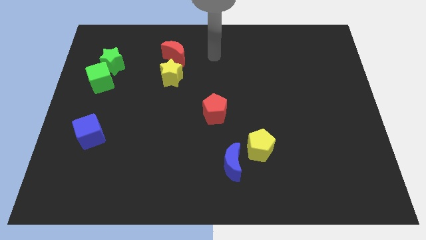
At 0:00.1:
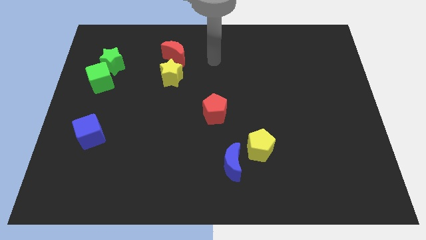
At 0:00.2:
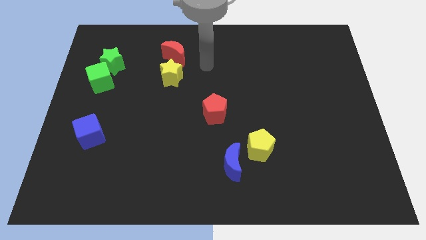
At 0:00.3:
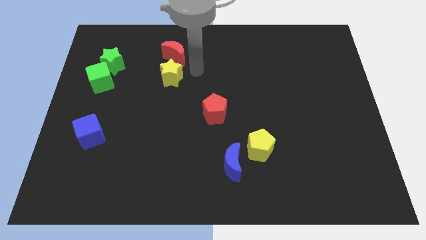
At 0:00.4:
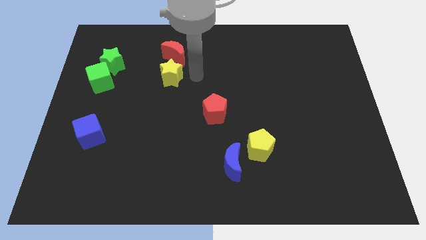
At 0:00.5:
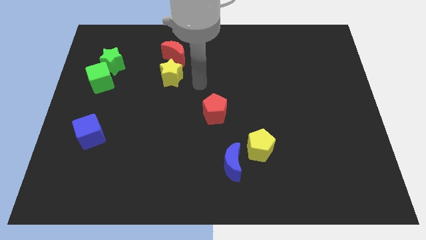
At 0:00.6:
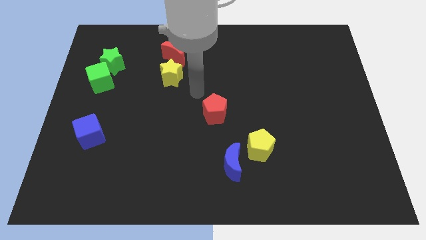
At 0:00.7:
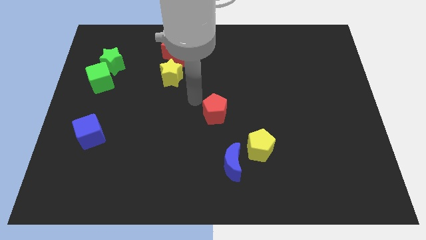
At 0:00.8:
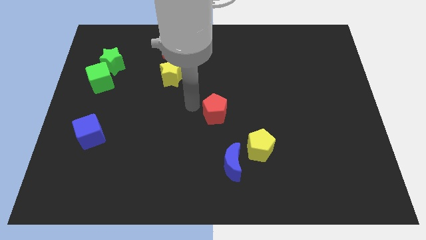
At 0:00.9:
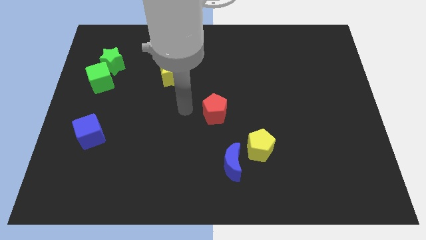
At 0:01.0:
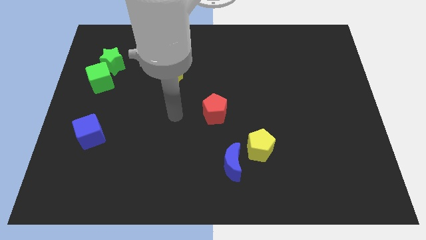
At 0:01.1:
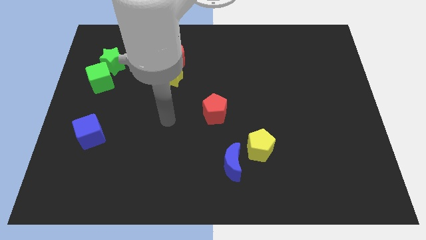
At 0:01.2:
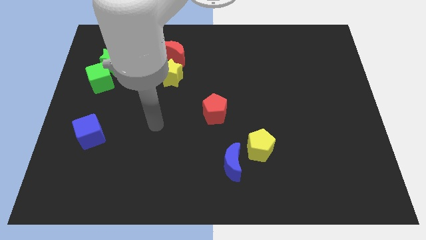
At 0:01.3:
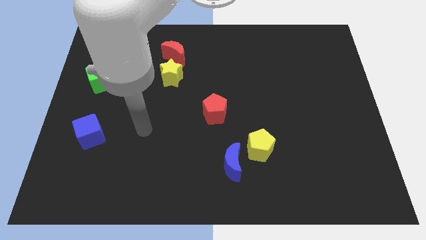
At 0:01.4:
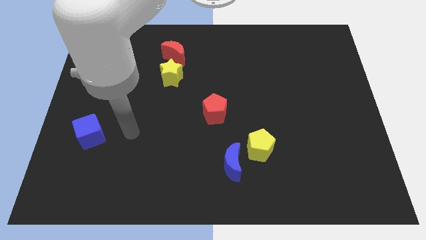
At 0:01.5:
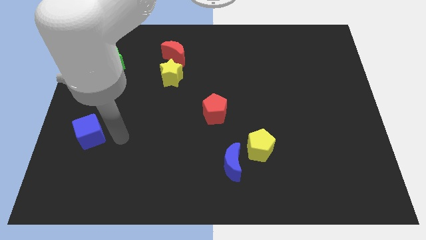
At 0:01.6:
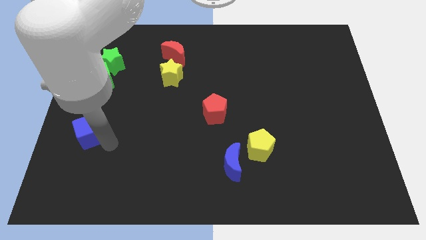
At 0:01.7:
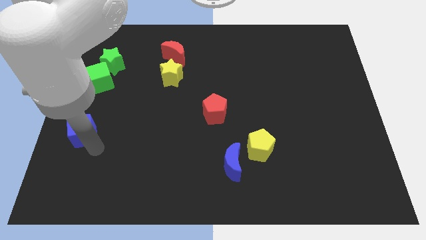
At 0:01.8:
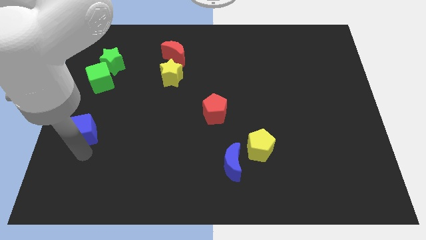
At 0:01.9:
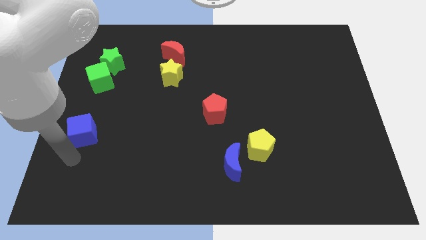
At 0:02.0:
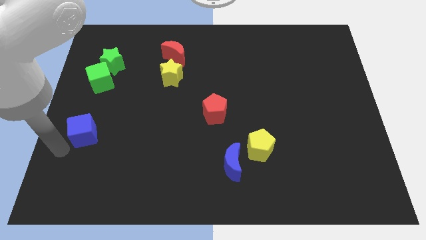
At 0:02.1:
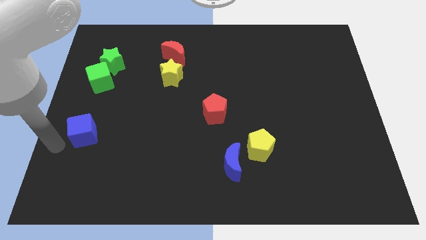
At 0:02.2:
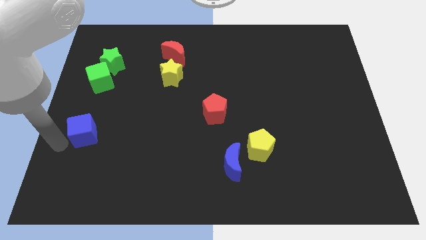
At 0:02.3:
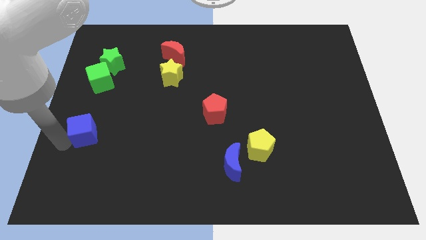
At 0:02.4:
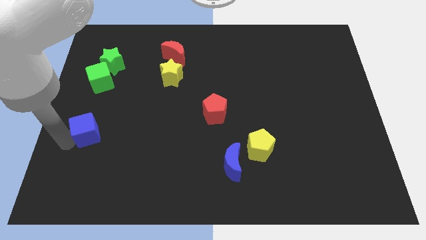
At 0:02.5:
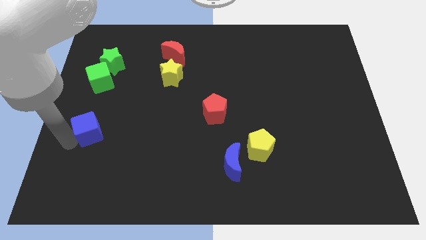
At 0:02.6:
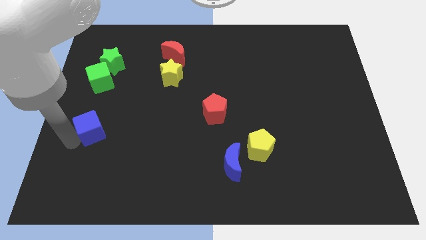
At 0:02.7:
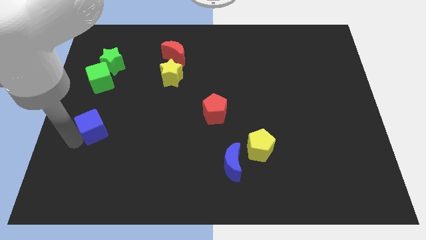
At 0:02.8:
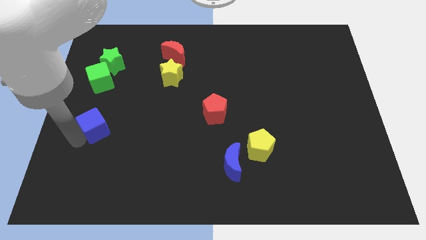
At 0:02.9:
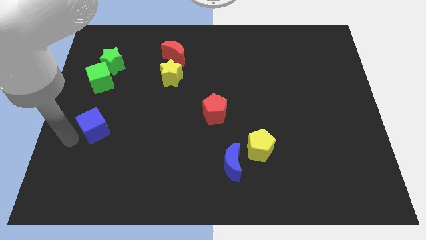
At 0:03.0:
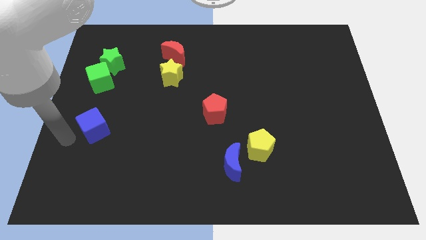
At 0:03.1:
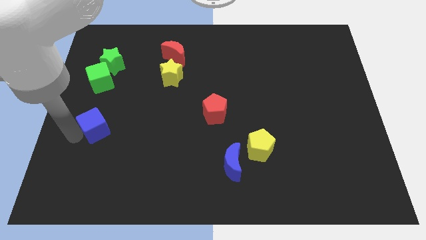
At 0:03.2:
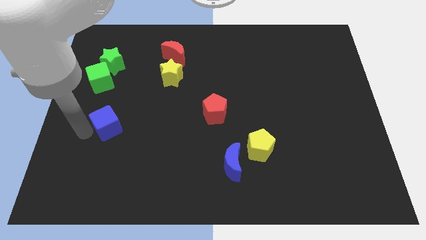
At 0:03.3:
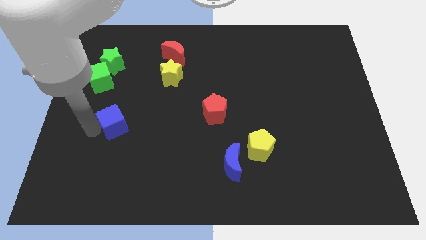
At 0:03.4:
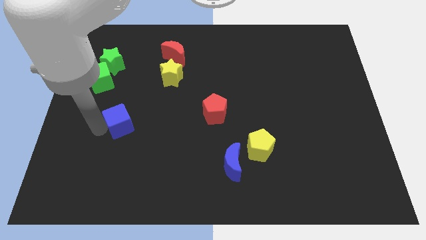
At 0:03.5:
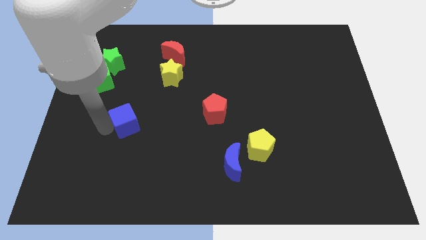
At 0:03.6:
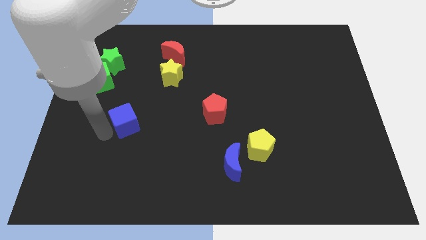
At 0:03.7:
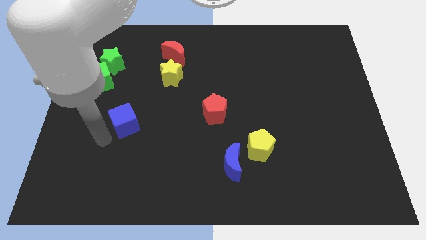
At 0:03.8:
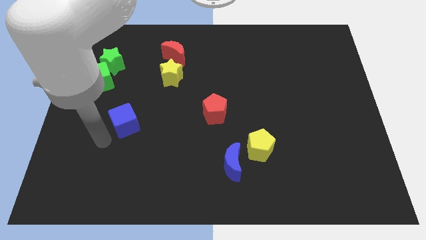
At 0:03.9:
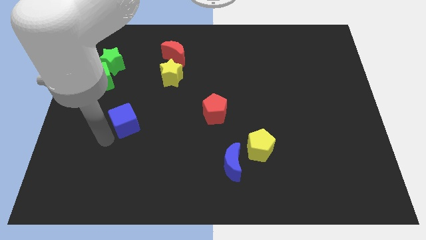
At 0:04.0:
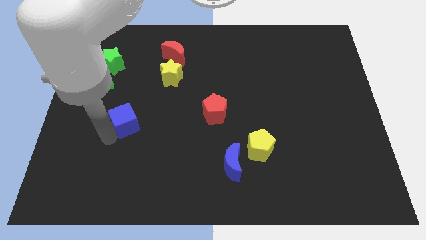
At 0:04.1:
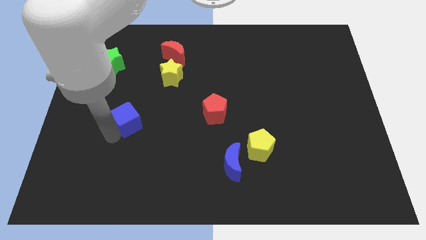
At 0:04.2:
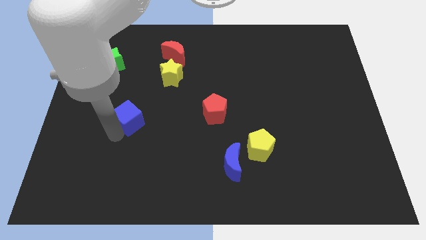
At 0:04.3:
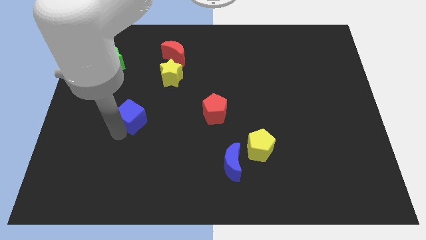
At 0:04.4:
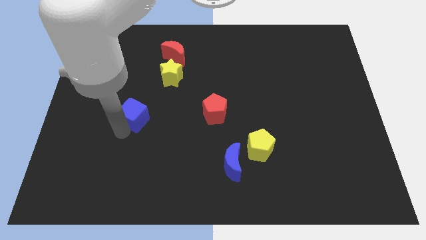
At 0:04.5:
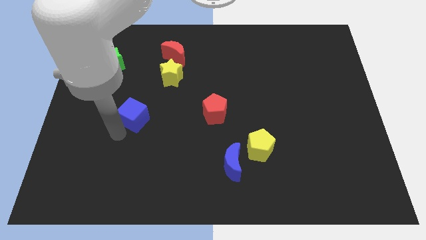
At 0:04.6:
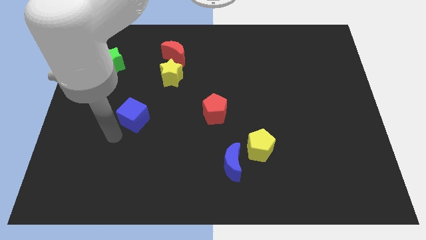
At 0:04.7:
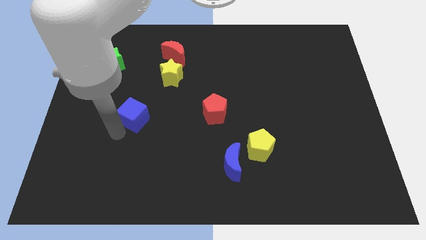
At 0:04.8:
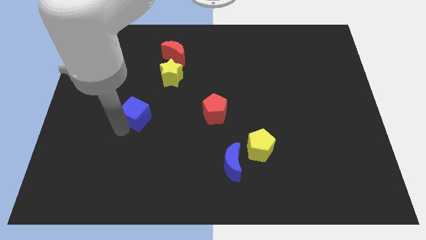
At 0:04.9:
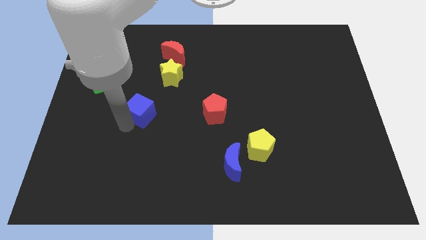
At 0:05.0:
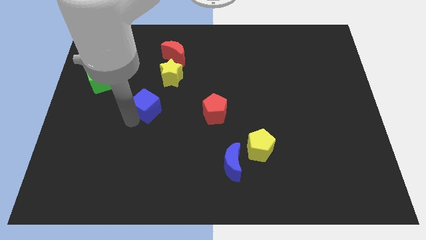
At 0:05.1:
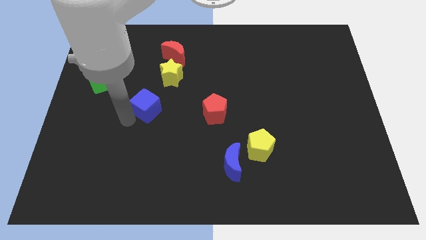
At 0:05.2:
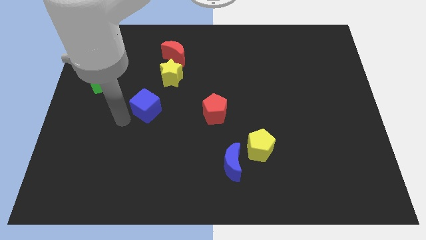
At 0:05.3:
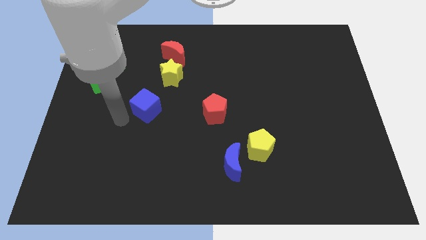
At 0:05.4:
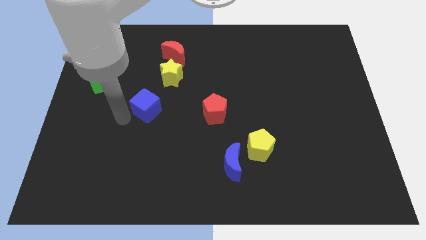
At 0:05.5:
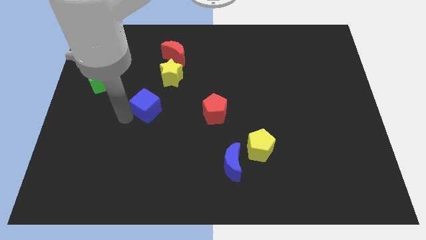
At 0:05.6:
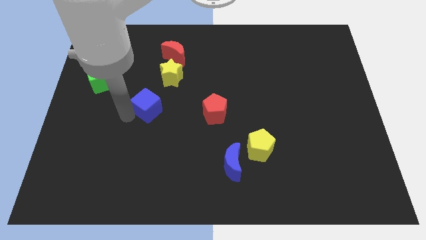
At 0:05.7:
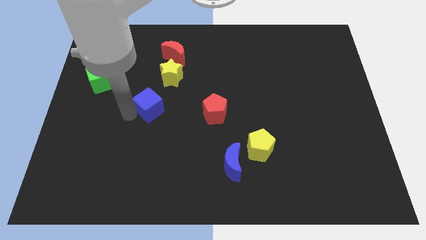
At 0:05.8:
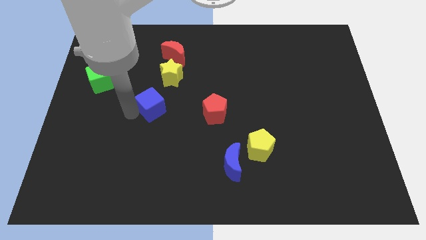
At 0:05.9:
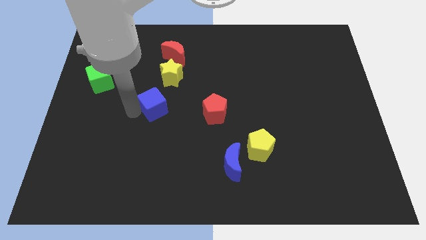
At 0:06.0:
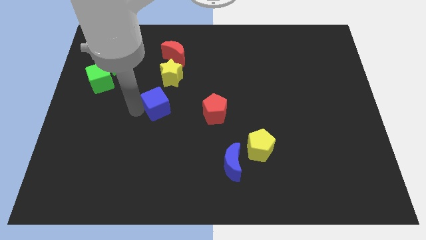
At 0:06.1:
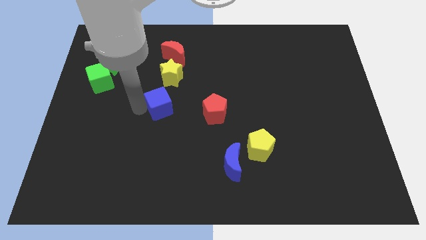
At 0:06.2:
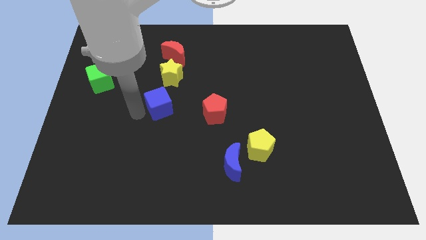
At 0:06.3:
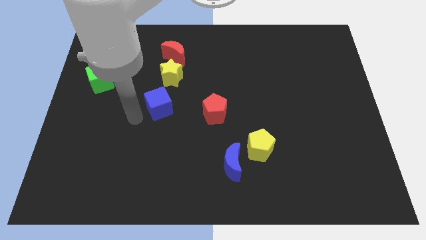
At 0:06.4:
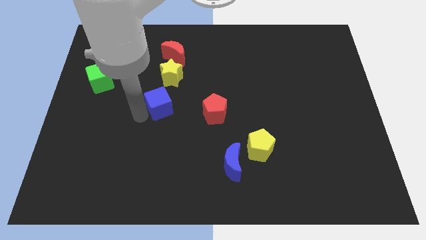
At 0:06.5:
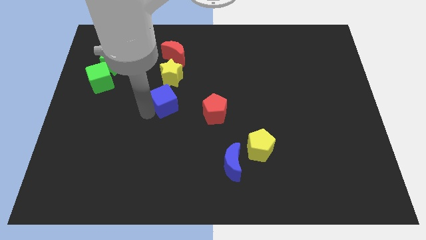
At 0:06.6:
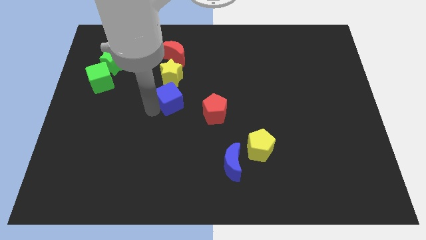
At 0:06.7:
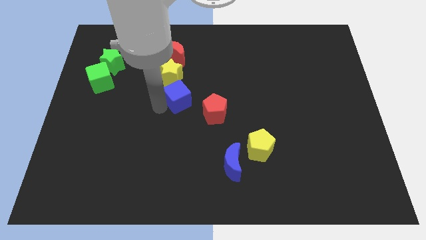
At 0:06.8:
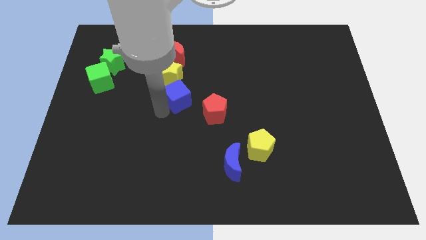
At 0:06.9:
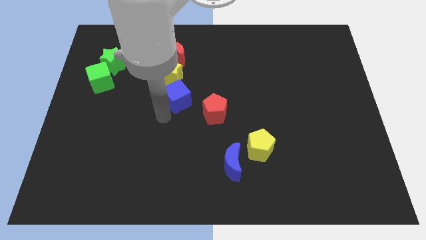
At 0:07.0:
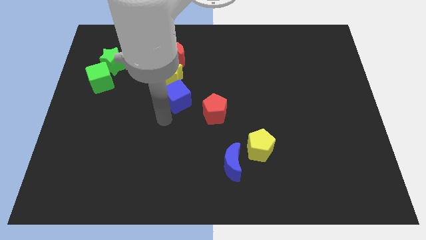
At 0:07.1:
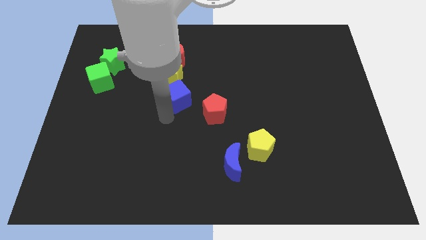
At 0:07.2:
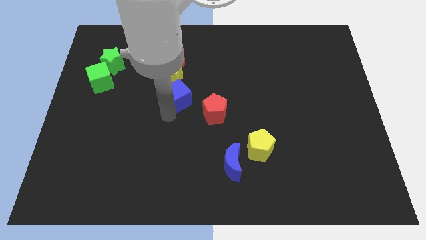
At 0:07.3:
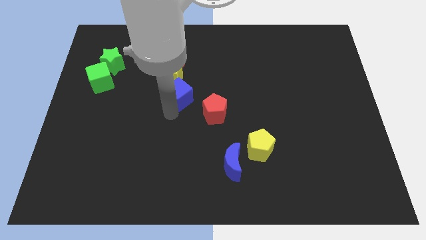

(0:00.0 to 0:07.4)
push the blue cube upwards and right diagonally

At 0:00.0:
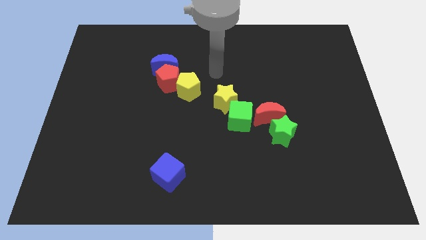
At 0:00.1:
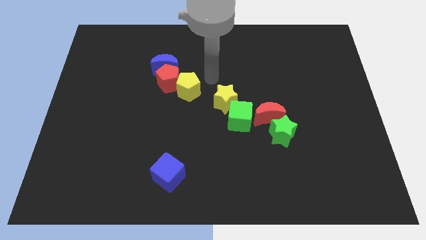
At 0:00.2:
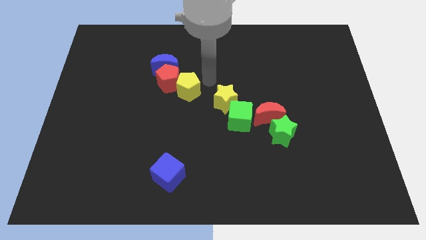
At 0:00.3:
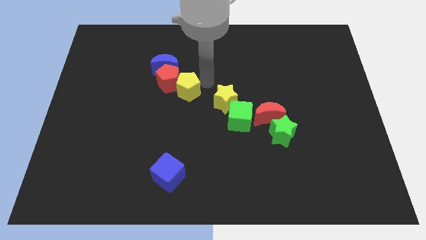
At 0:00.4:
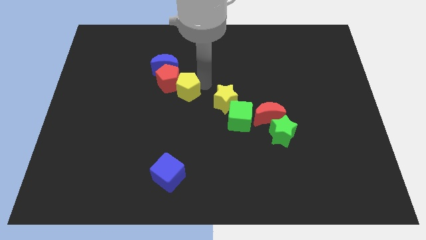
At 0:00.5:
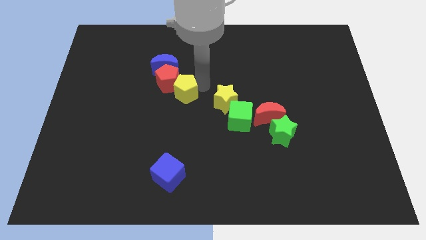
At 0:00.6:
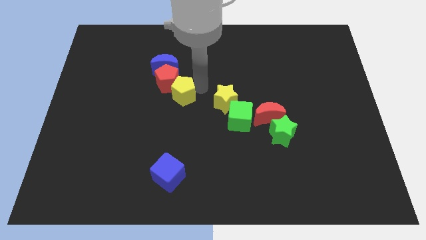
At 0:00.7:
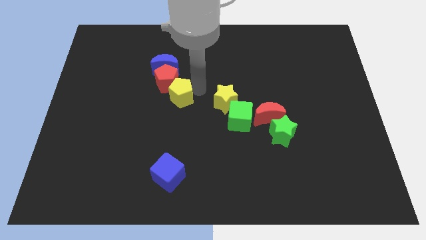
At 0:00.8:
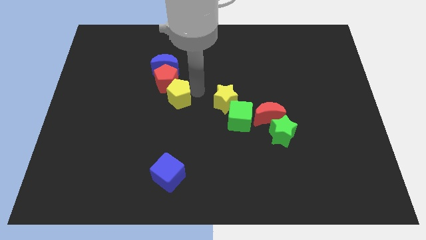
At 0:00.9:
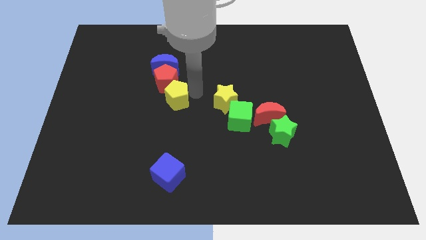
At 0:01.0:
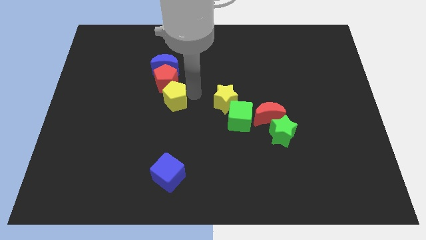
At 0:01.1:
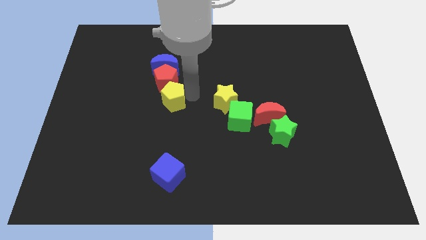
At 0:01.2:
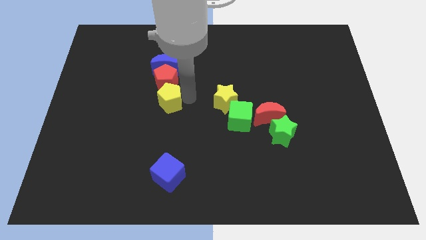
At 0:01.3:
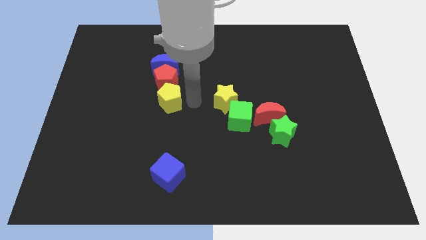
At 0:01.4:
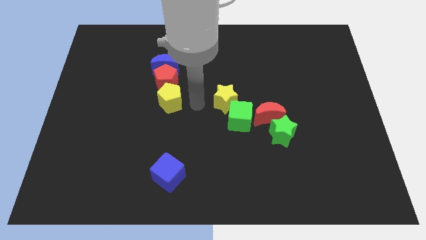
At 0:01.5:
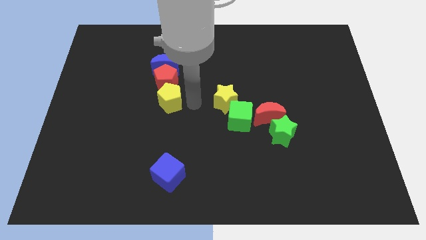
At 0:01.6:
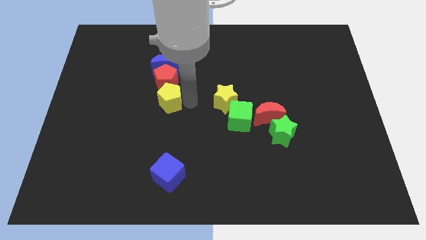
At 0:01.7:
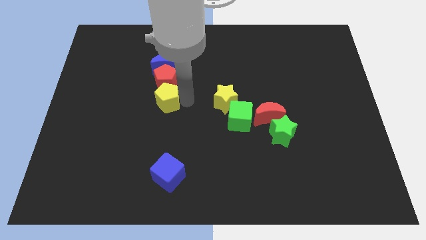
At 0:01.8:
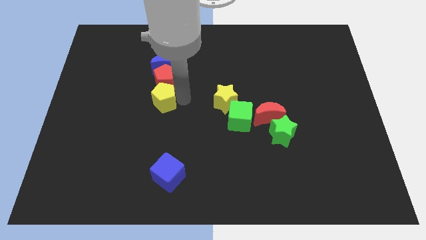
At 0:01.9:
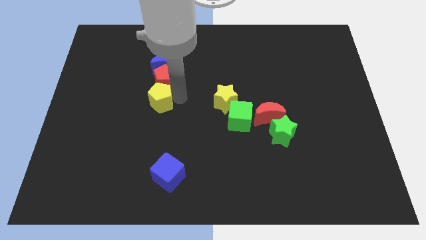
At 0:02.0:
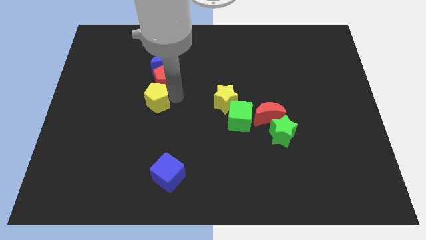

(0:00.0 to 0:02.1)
move the yellow pentagon left a bit
